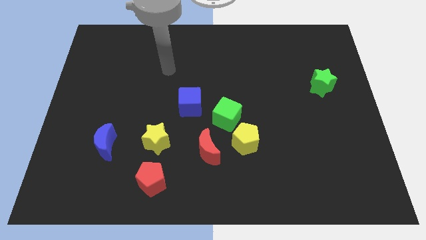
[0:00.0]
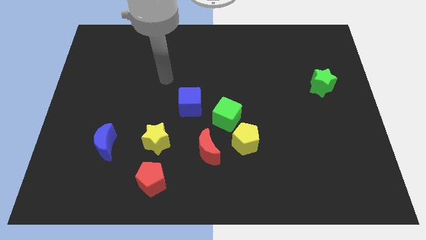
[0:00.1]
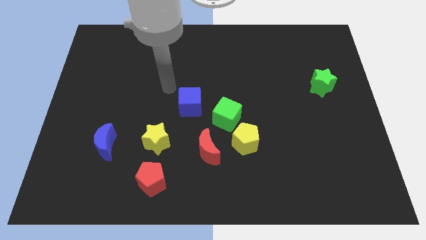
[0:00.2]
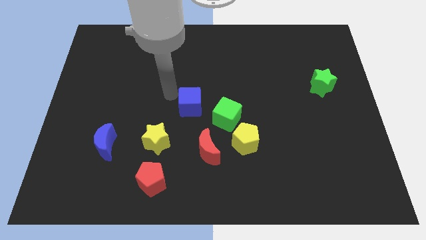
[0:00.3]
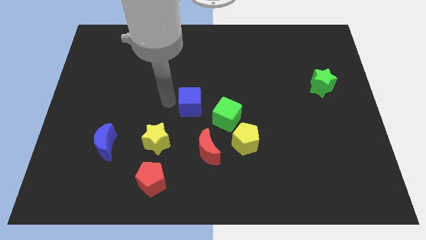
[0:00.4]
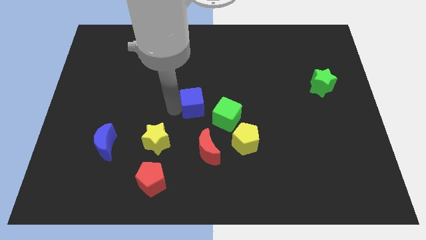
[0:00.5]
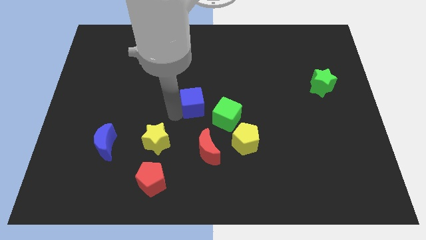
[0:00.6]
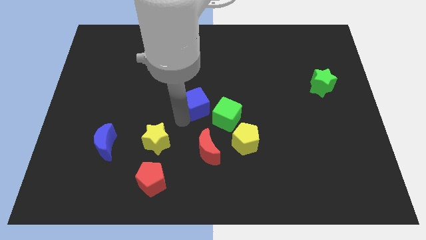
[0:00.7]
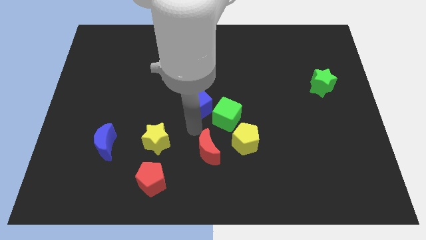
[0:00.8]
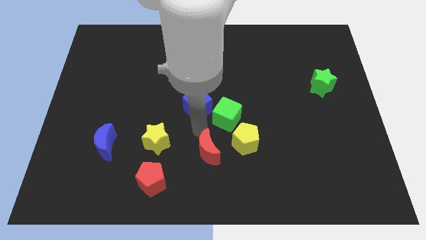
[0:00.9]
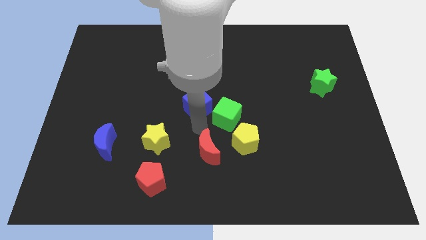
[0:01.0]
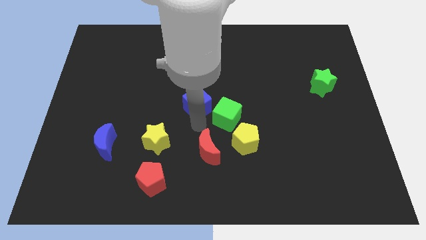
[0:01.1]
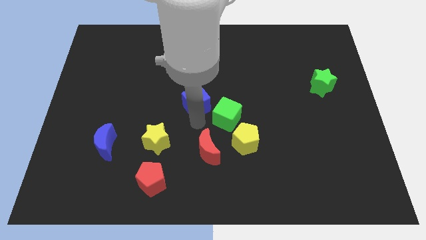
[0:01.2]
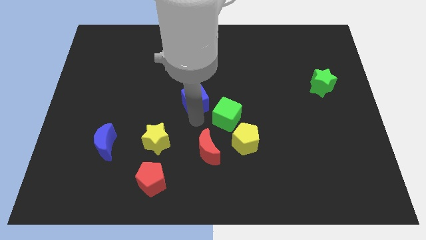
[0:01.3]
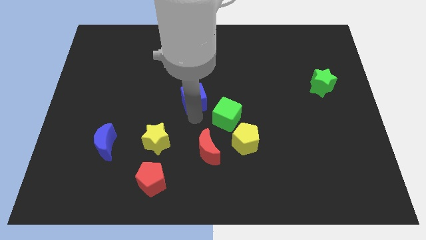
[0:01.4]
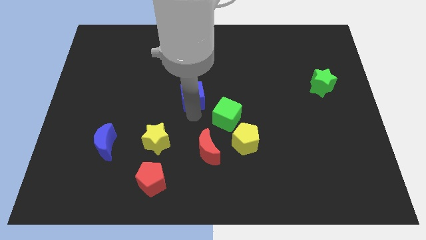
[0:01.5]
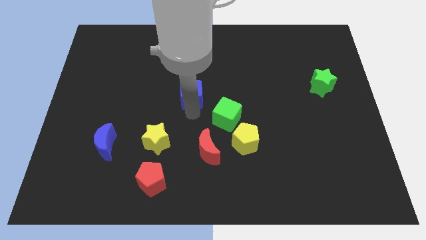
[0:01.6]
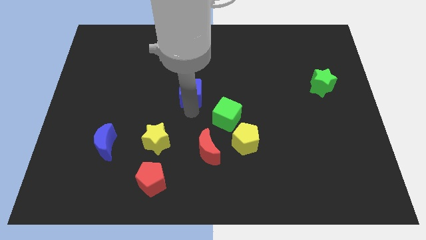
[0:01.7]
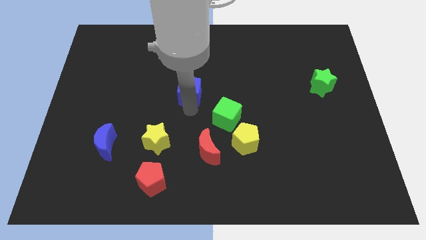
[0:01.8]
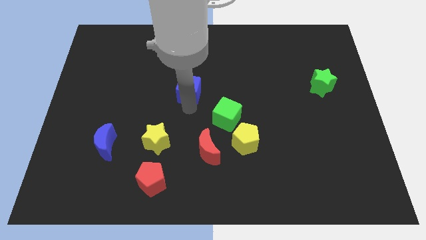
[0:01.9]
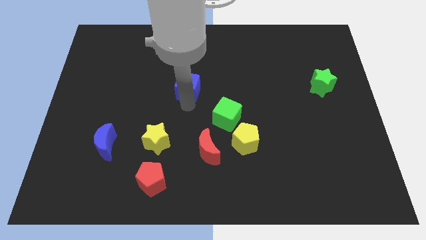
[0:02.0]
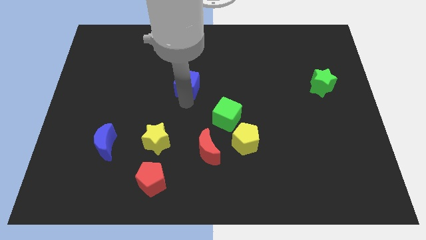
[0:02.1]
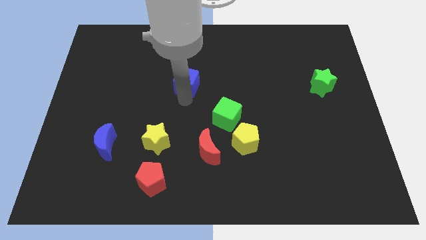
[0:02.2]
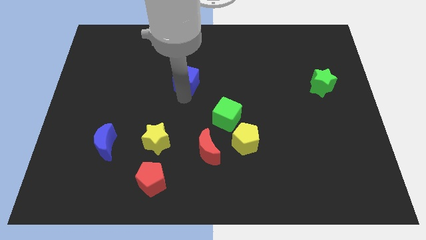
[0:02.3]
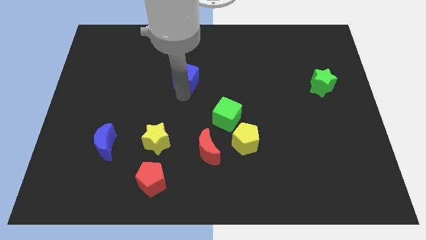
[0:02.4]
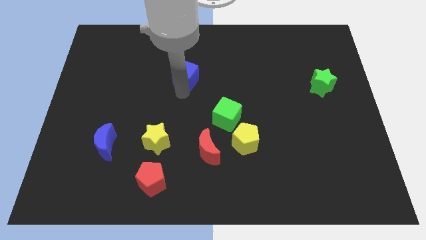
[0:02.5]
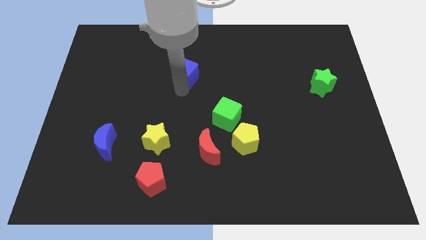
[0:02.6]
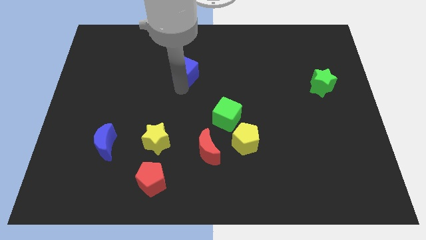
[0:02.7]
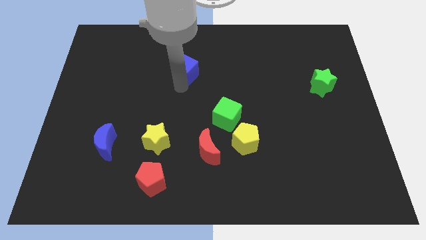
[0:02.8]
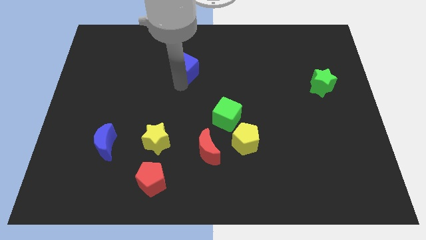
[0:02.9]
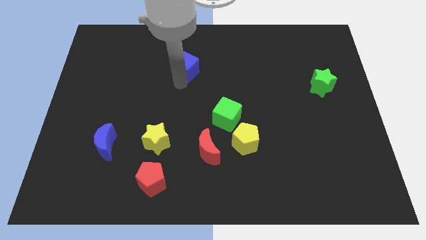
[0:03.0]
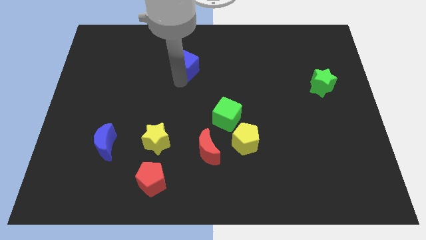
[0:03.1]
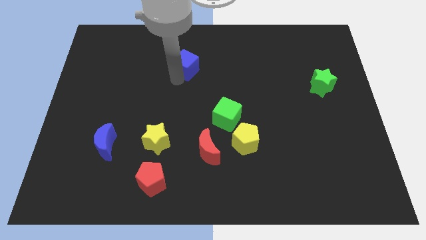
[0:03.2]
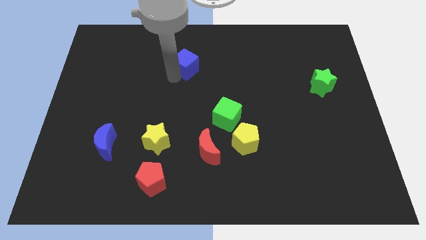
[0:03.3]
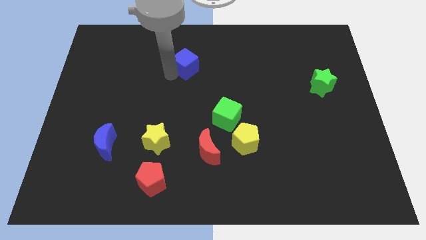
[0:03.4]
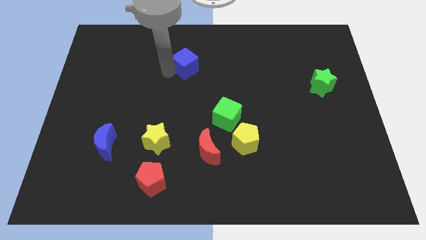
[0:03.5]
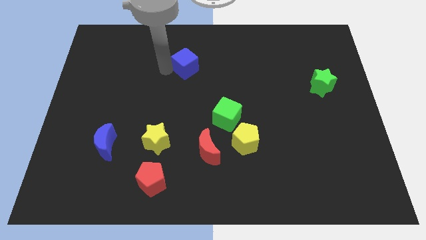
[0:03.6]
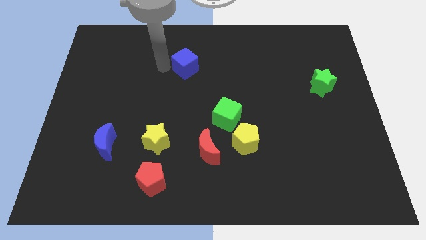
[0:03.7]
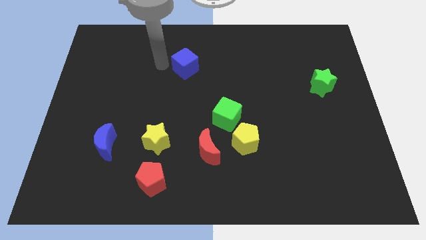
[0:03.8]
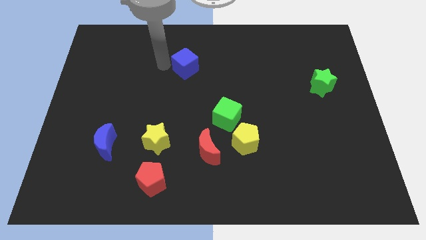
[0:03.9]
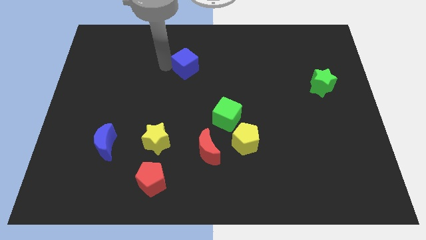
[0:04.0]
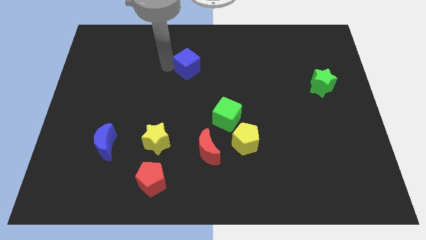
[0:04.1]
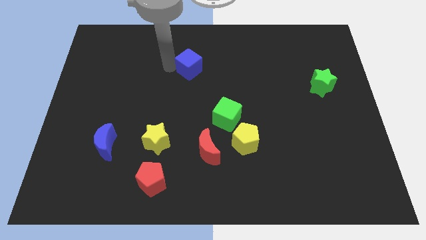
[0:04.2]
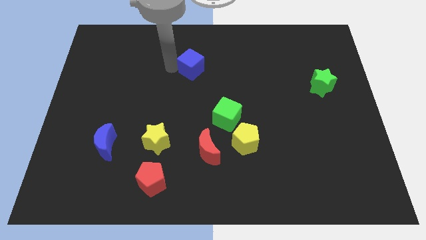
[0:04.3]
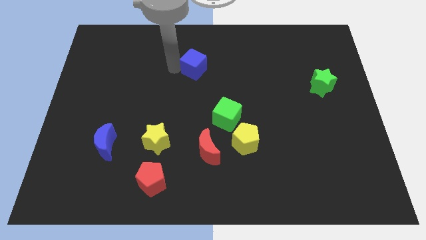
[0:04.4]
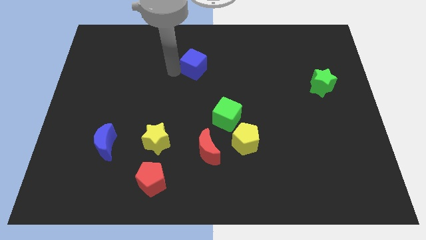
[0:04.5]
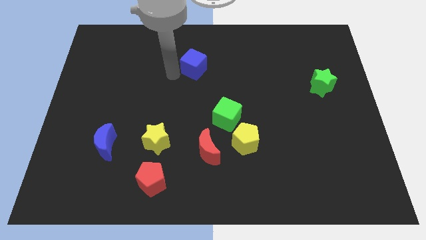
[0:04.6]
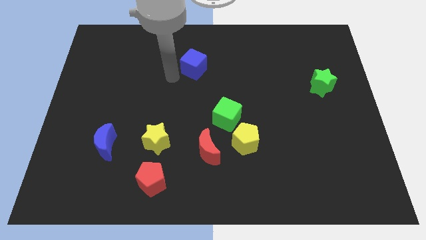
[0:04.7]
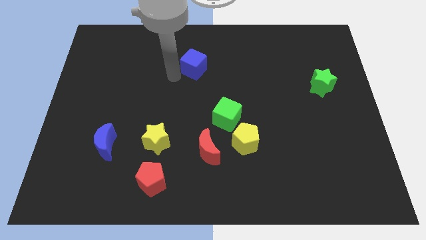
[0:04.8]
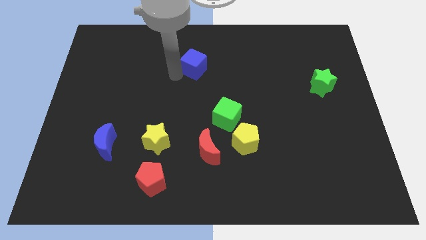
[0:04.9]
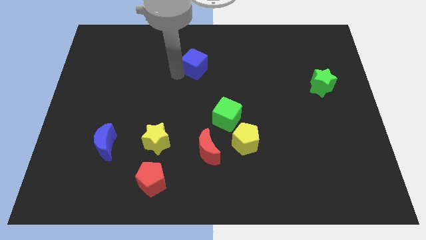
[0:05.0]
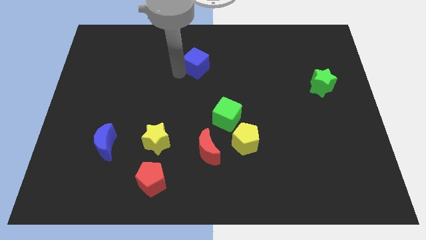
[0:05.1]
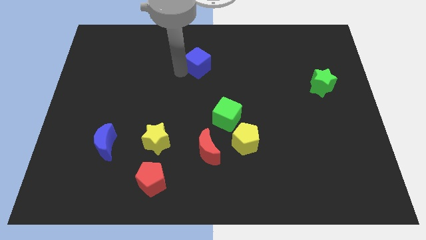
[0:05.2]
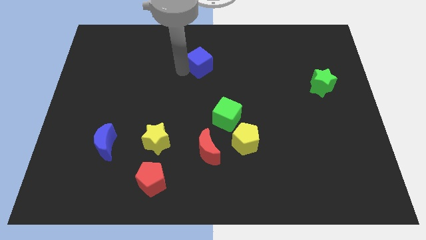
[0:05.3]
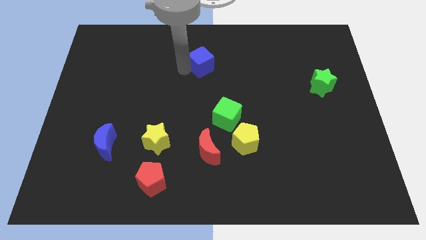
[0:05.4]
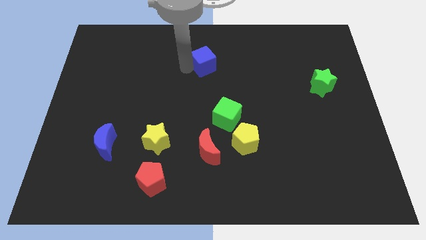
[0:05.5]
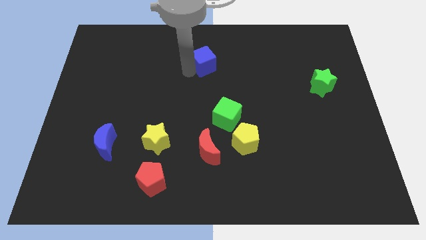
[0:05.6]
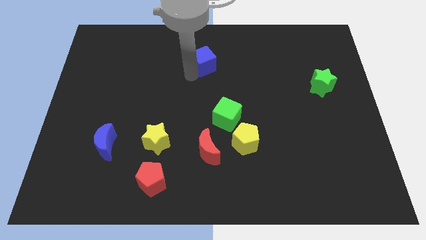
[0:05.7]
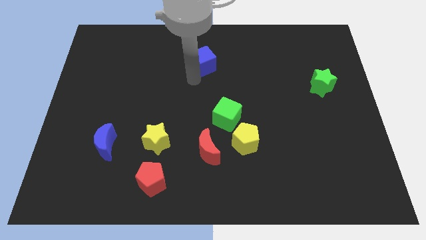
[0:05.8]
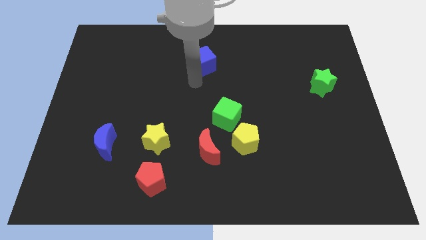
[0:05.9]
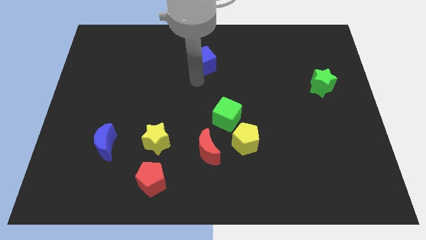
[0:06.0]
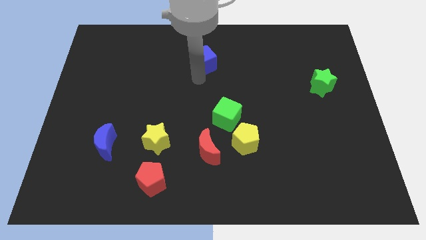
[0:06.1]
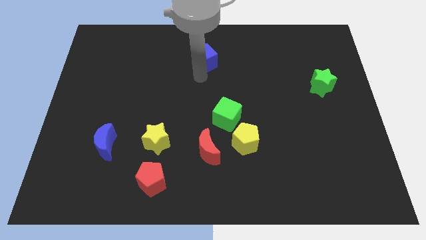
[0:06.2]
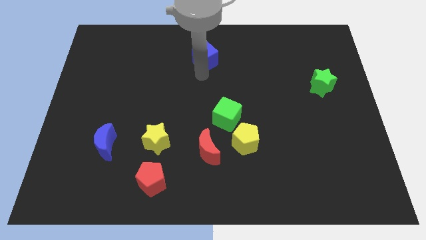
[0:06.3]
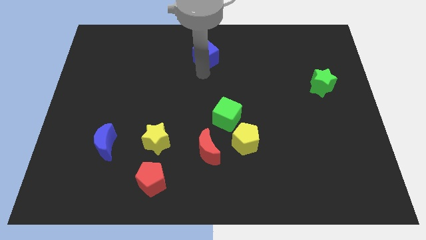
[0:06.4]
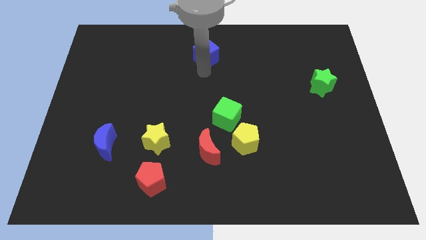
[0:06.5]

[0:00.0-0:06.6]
move the blue cube to the top
